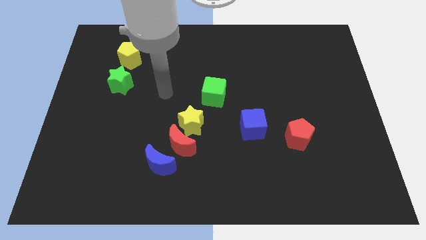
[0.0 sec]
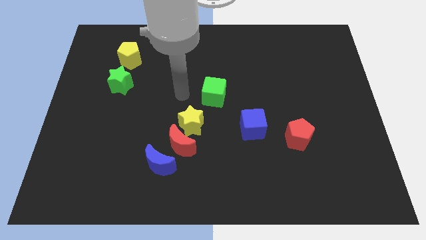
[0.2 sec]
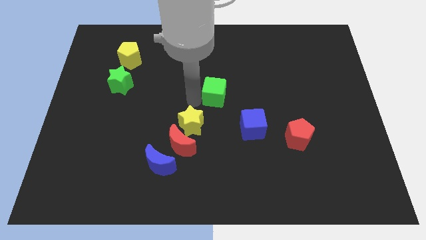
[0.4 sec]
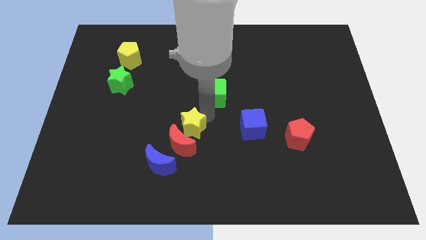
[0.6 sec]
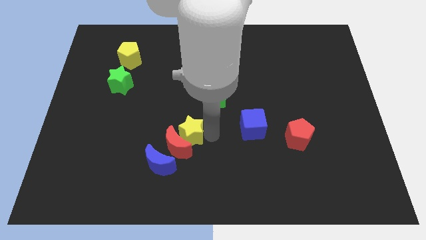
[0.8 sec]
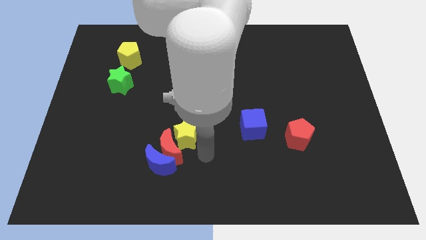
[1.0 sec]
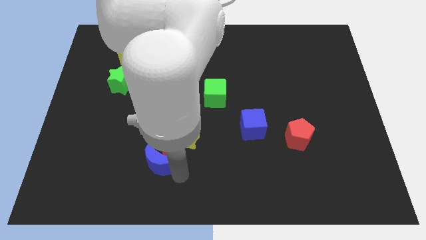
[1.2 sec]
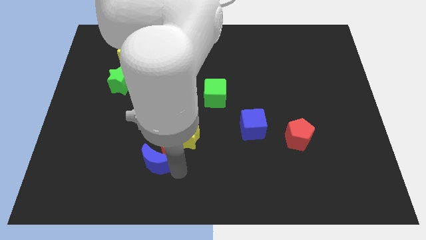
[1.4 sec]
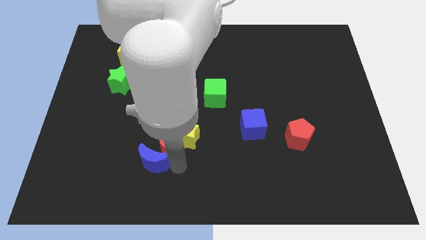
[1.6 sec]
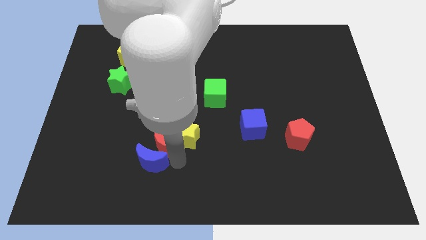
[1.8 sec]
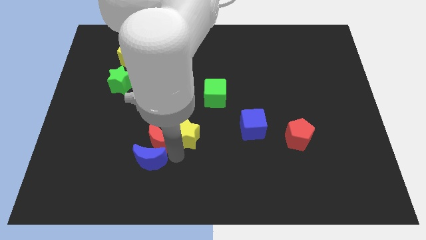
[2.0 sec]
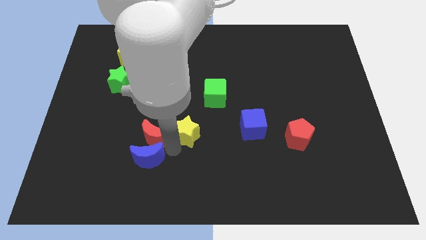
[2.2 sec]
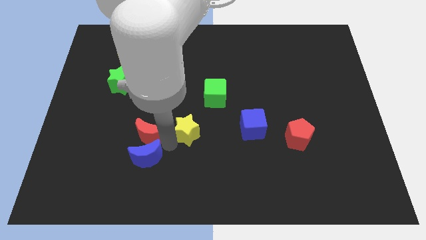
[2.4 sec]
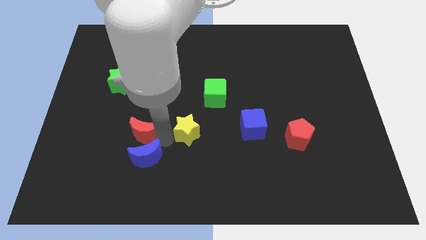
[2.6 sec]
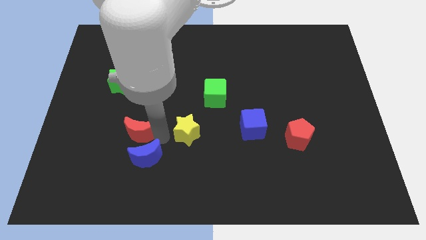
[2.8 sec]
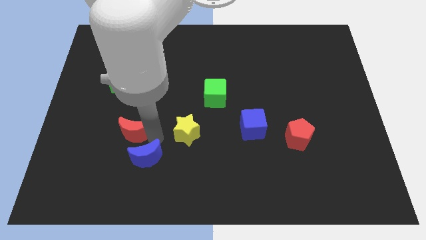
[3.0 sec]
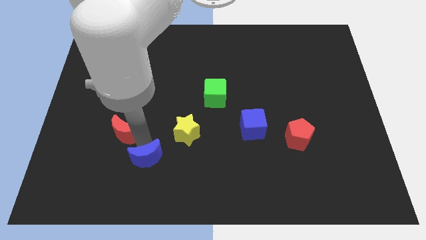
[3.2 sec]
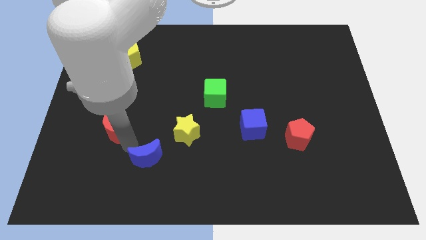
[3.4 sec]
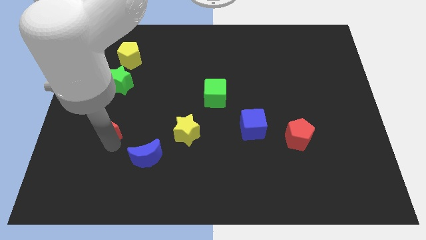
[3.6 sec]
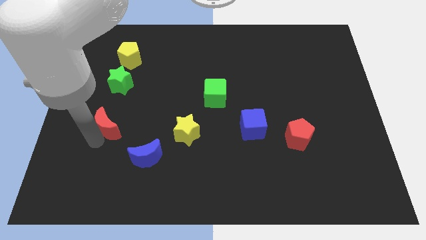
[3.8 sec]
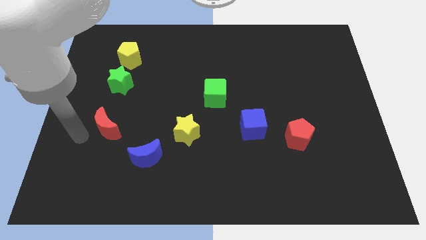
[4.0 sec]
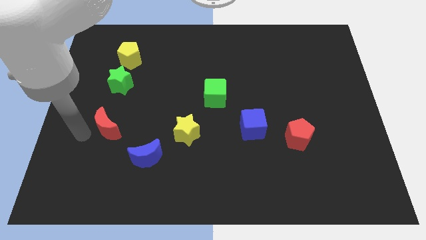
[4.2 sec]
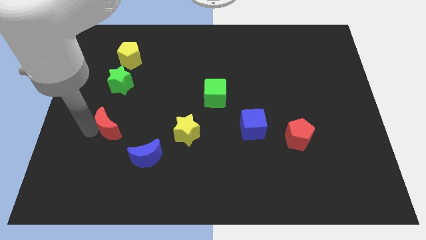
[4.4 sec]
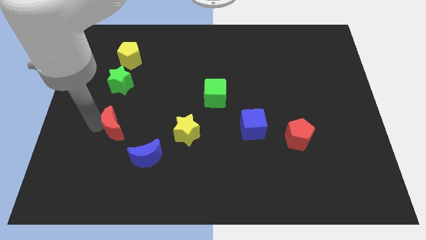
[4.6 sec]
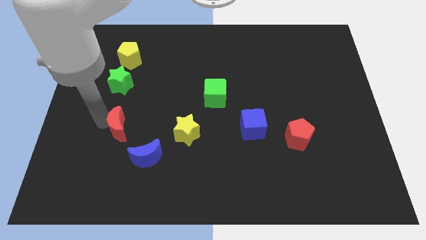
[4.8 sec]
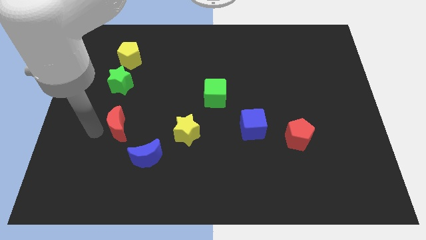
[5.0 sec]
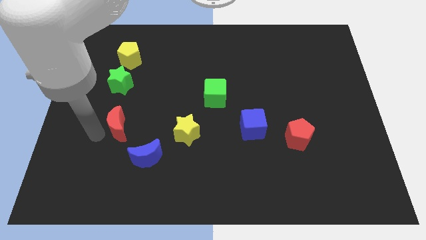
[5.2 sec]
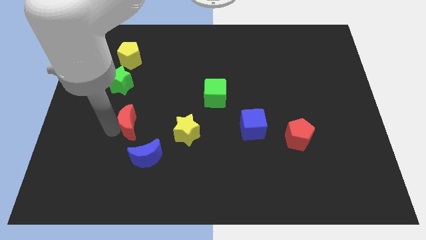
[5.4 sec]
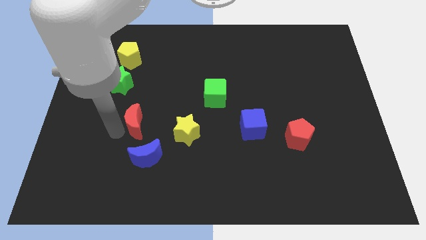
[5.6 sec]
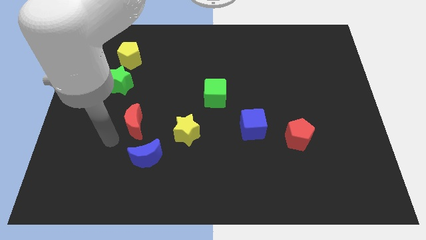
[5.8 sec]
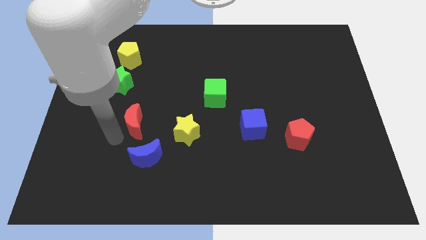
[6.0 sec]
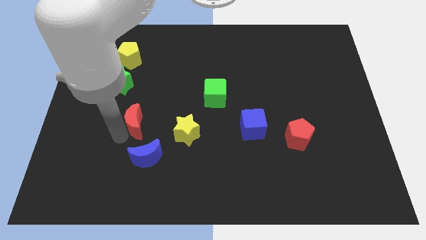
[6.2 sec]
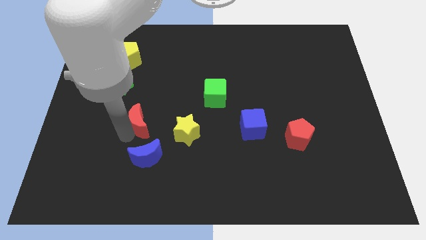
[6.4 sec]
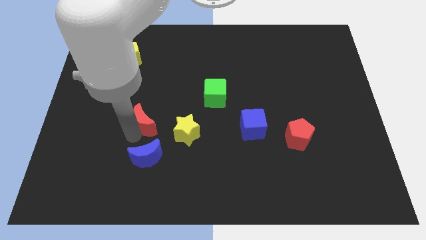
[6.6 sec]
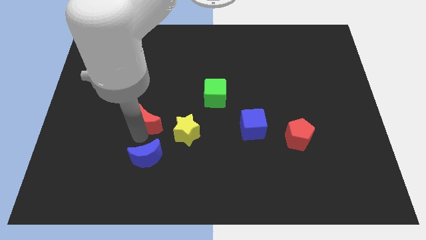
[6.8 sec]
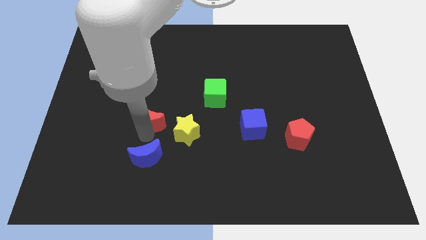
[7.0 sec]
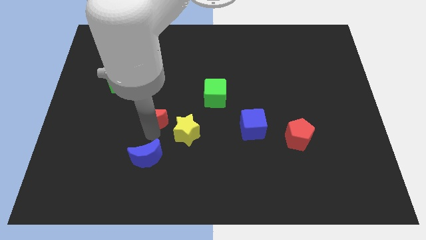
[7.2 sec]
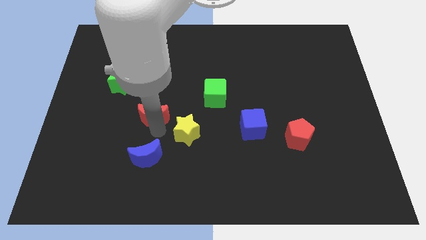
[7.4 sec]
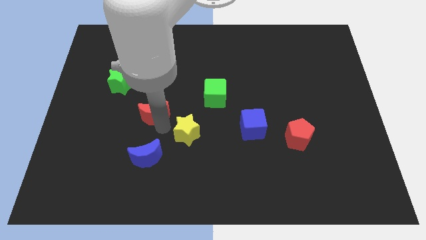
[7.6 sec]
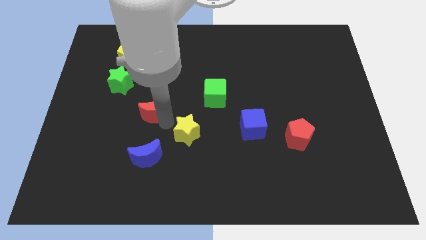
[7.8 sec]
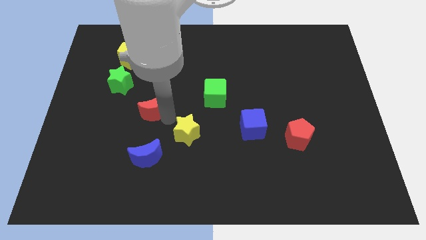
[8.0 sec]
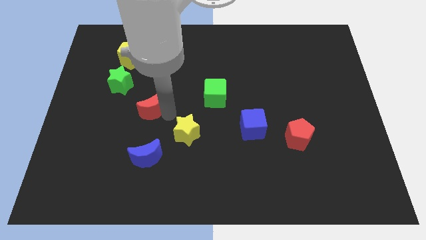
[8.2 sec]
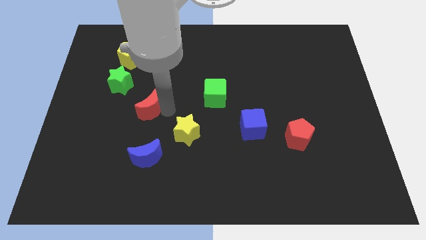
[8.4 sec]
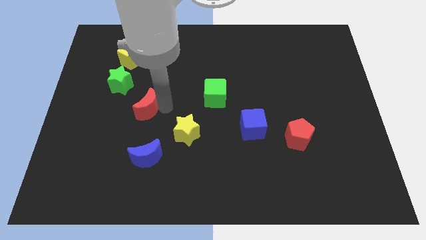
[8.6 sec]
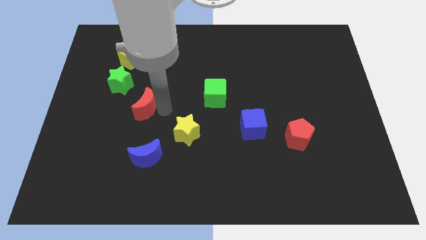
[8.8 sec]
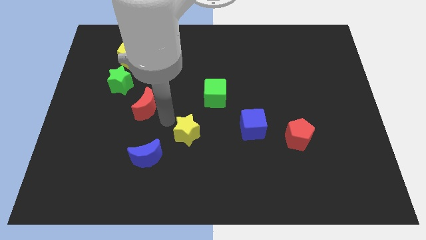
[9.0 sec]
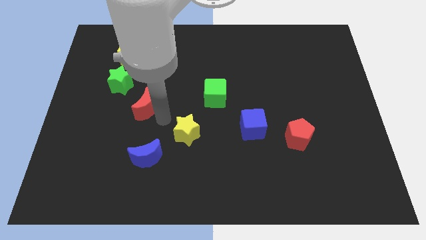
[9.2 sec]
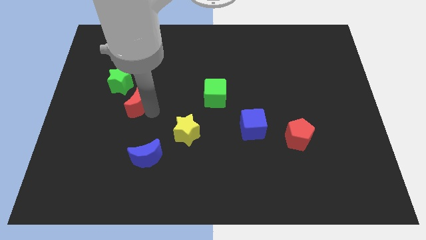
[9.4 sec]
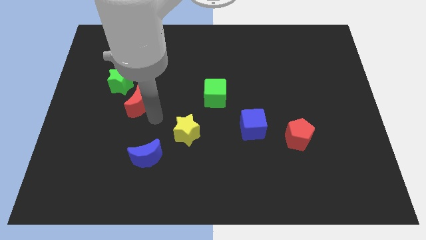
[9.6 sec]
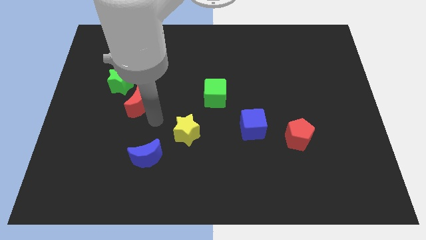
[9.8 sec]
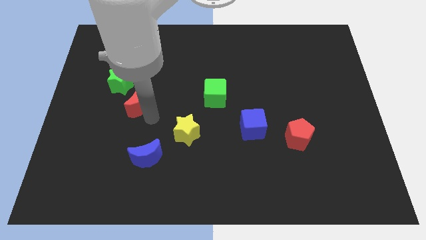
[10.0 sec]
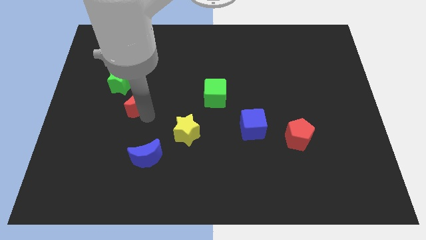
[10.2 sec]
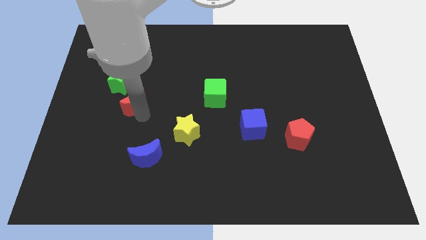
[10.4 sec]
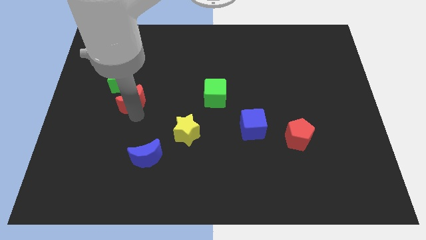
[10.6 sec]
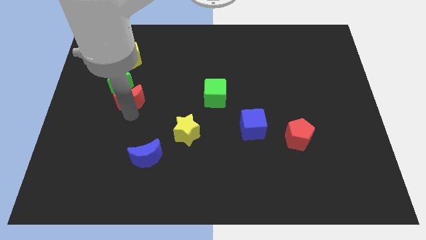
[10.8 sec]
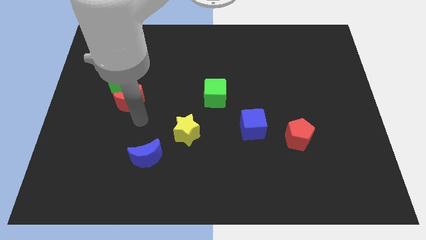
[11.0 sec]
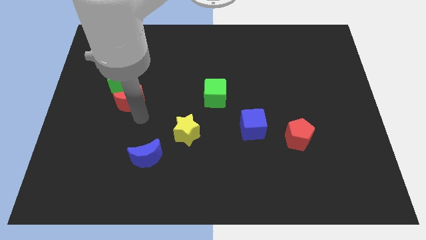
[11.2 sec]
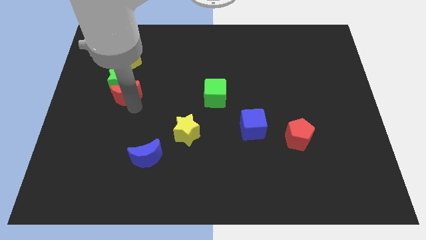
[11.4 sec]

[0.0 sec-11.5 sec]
push the red moon next to the green star

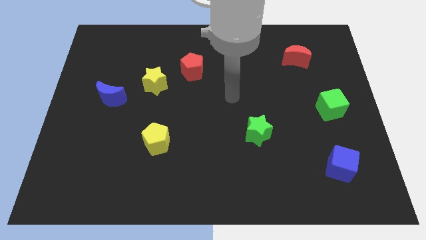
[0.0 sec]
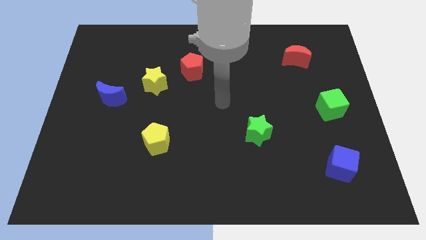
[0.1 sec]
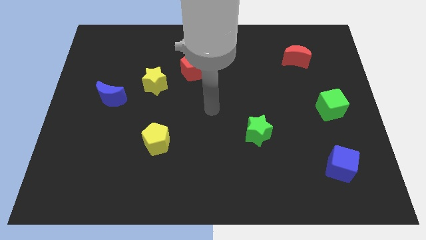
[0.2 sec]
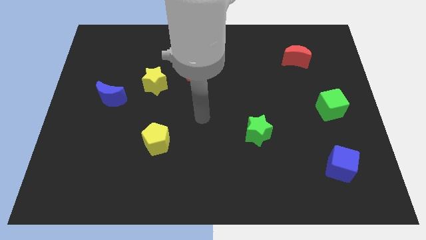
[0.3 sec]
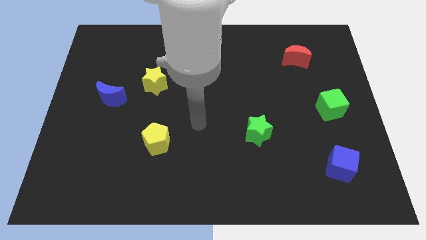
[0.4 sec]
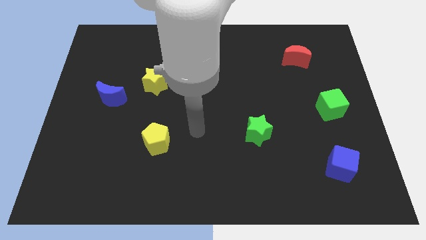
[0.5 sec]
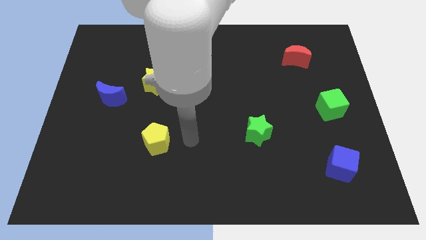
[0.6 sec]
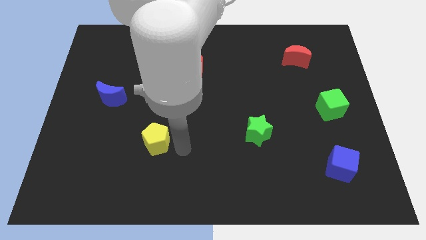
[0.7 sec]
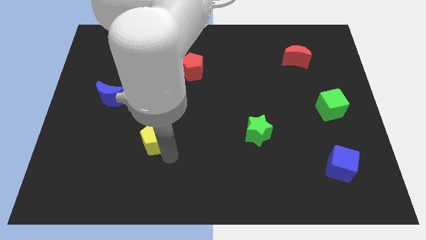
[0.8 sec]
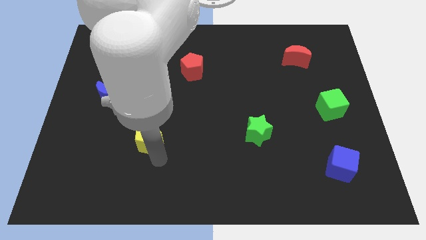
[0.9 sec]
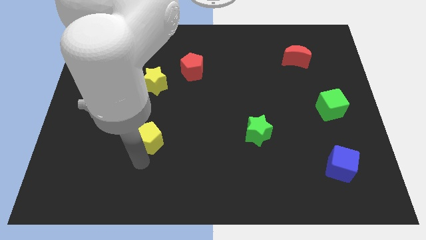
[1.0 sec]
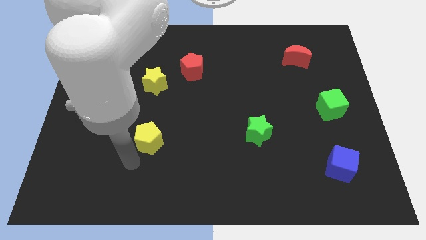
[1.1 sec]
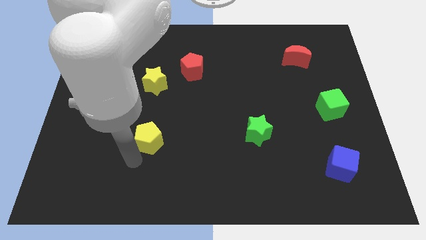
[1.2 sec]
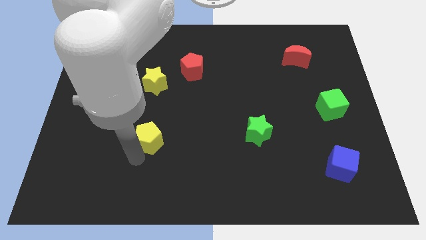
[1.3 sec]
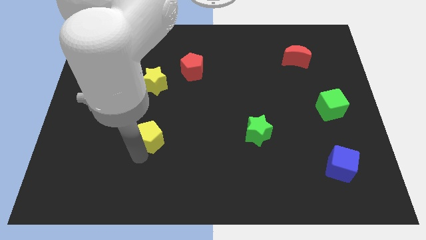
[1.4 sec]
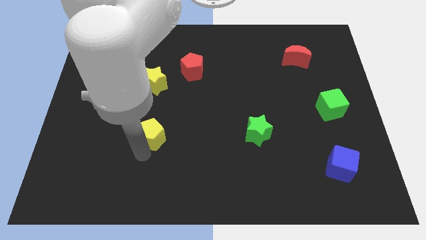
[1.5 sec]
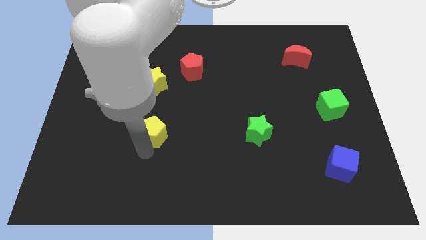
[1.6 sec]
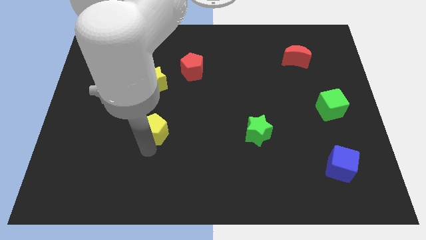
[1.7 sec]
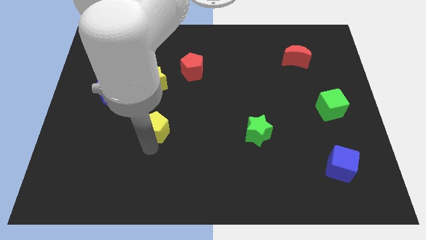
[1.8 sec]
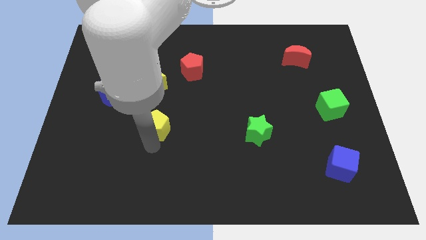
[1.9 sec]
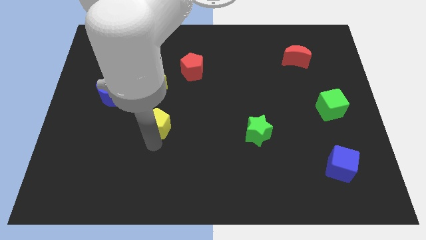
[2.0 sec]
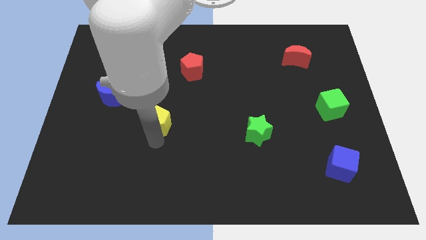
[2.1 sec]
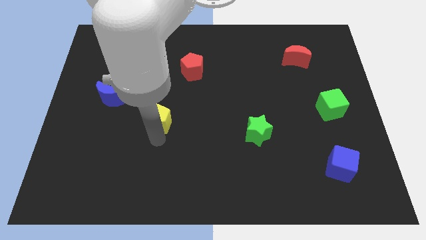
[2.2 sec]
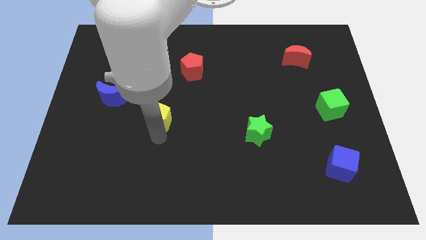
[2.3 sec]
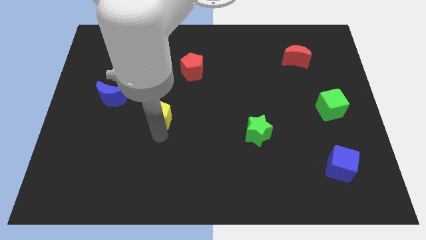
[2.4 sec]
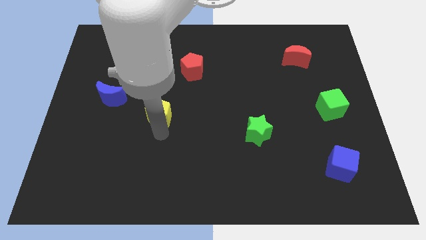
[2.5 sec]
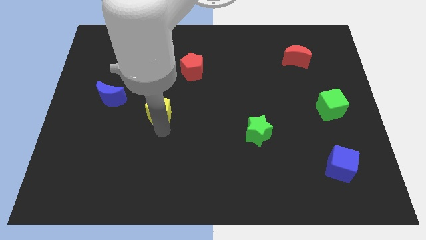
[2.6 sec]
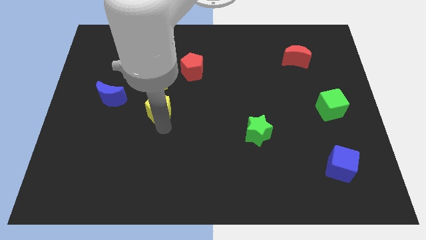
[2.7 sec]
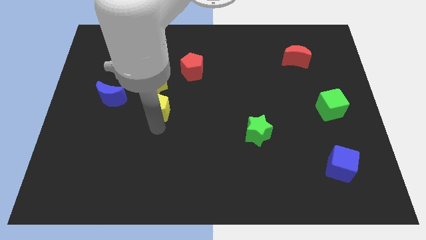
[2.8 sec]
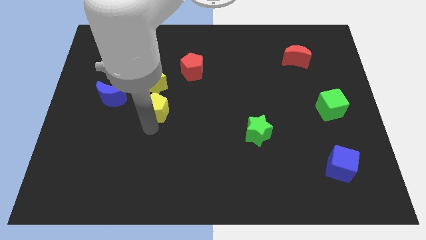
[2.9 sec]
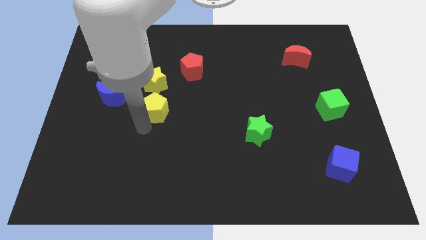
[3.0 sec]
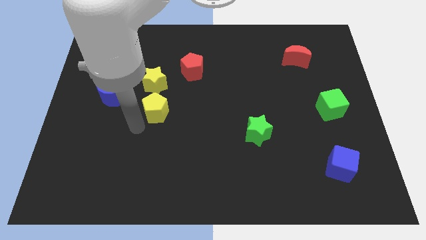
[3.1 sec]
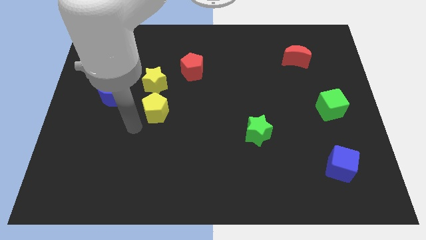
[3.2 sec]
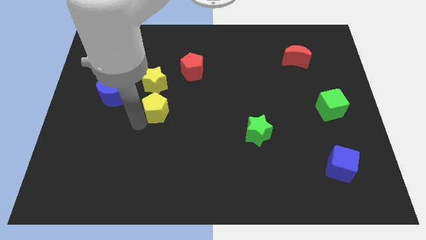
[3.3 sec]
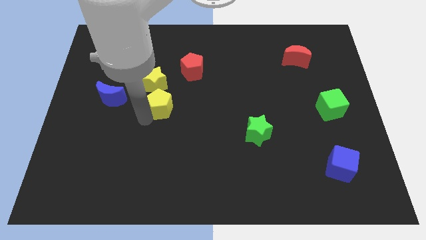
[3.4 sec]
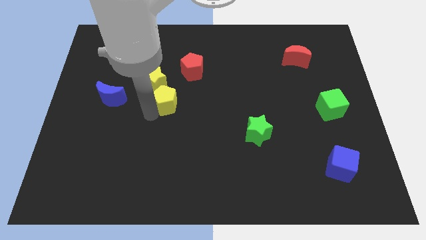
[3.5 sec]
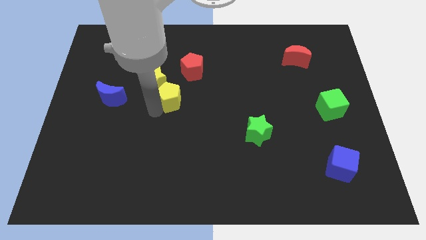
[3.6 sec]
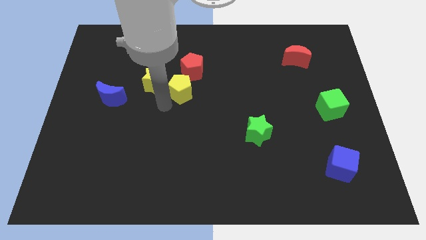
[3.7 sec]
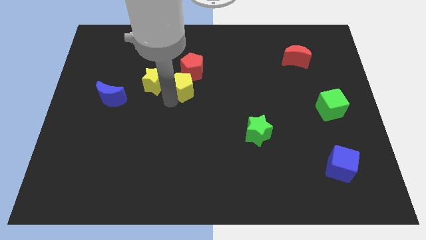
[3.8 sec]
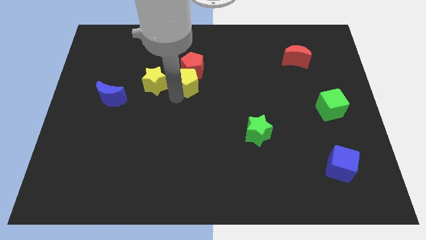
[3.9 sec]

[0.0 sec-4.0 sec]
put the yellow pentagon to the red pentagon
